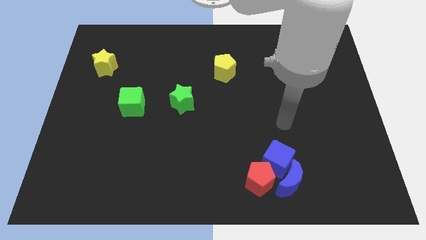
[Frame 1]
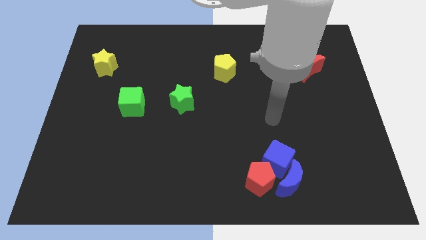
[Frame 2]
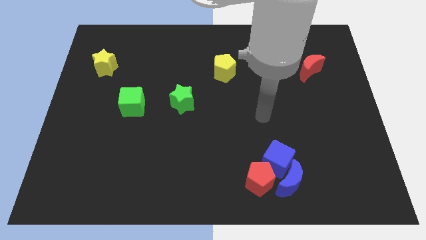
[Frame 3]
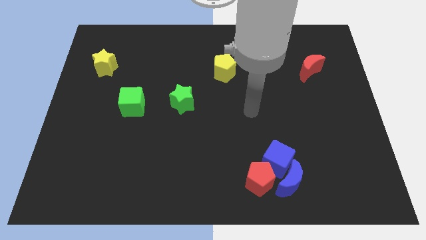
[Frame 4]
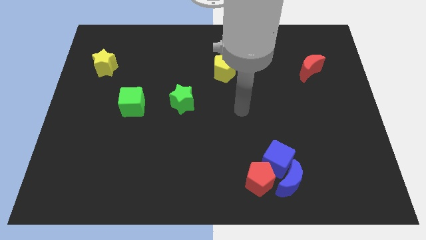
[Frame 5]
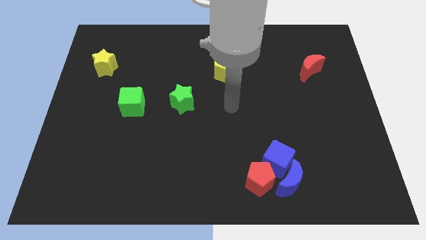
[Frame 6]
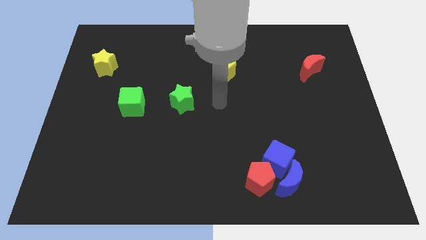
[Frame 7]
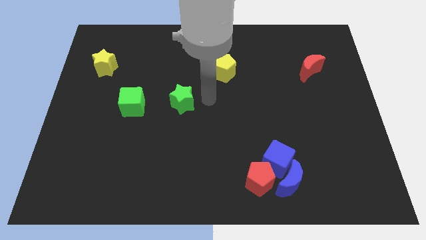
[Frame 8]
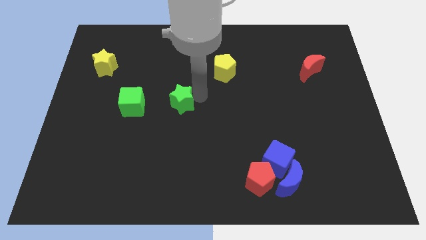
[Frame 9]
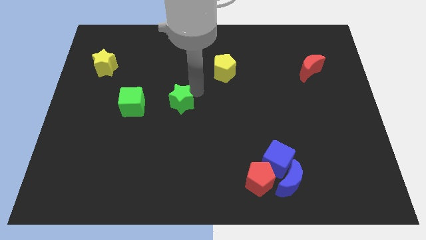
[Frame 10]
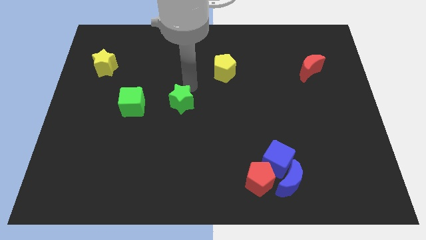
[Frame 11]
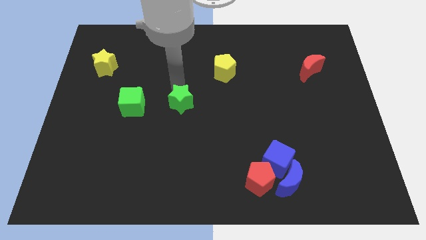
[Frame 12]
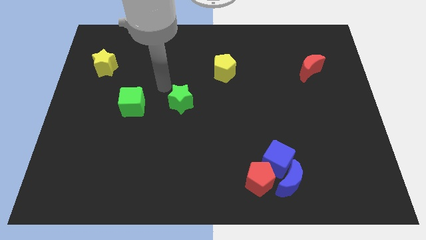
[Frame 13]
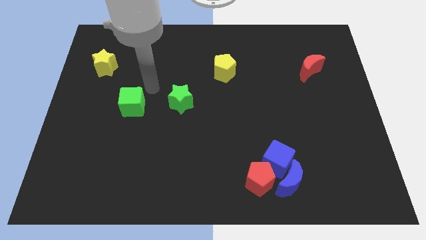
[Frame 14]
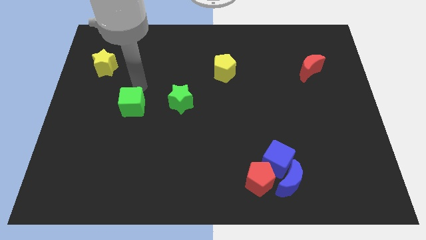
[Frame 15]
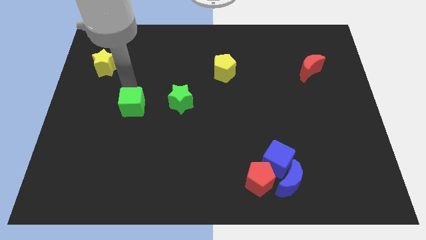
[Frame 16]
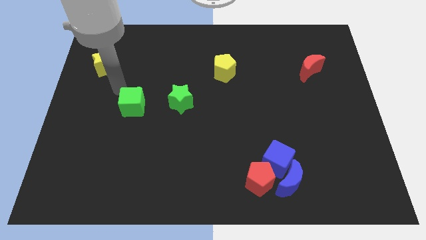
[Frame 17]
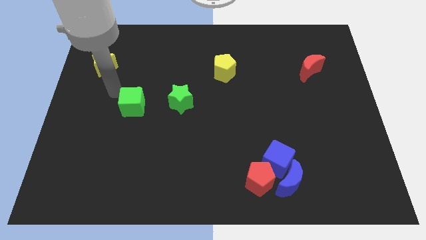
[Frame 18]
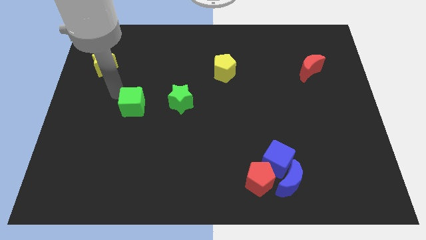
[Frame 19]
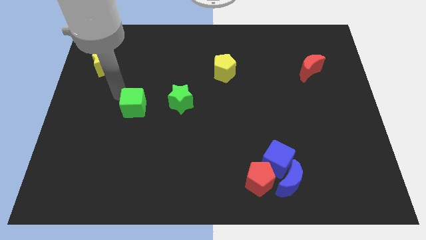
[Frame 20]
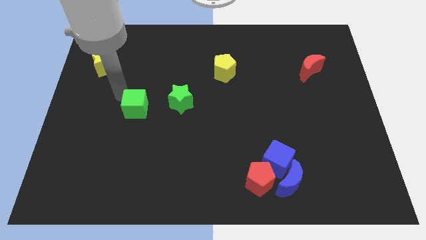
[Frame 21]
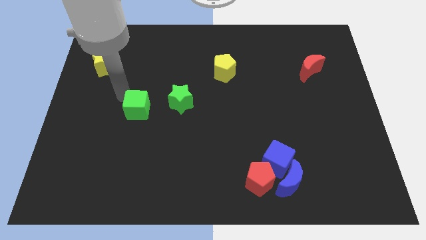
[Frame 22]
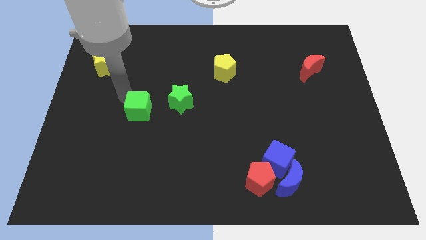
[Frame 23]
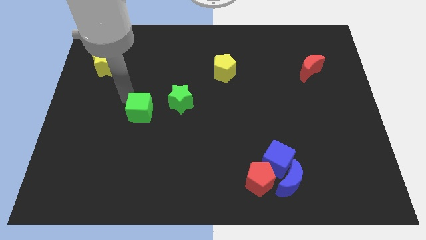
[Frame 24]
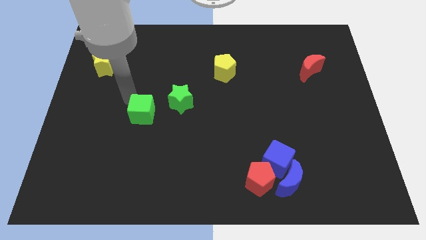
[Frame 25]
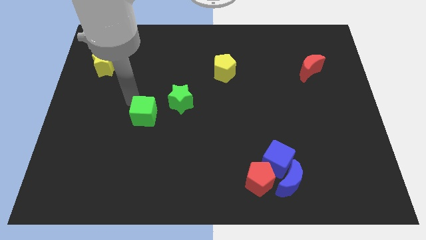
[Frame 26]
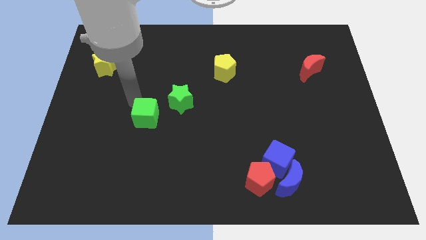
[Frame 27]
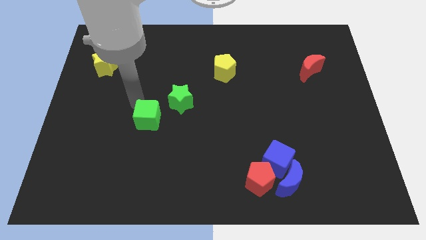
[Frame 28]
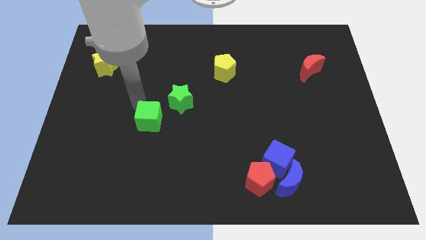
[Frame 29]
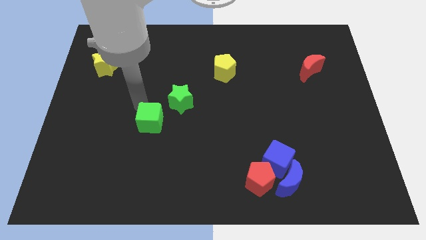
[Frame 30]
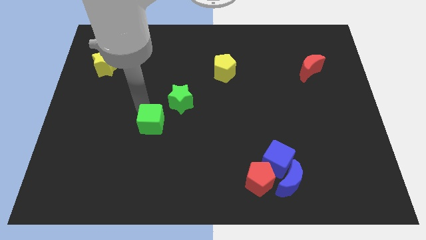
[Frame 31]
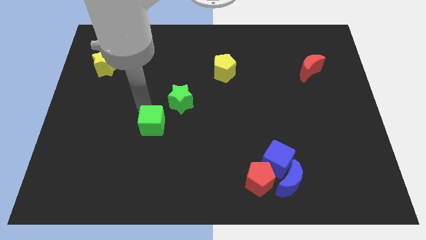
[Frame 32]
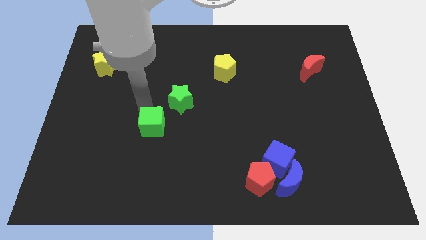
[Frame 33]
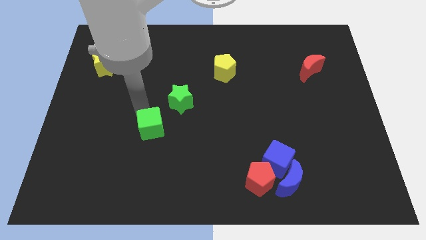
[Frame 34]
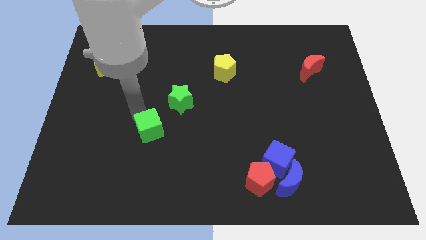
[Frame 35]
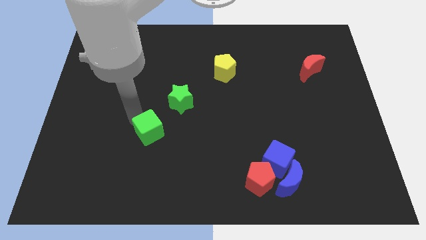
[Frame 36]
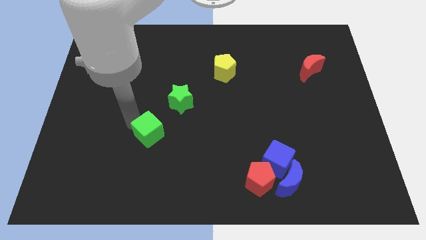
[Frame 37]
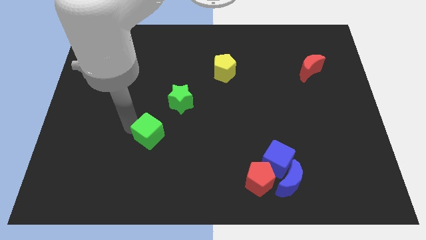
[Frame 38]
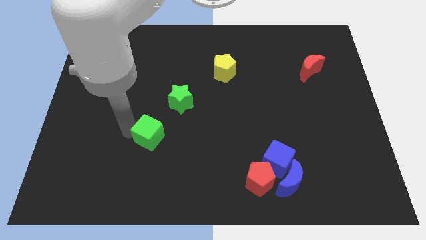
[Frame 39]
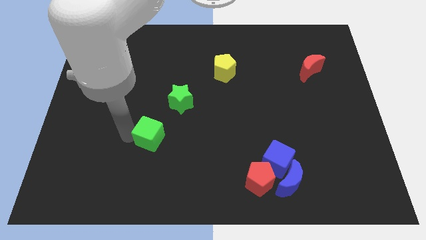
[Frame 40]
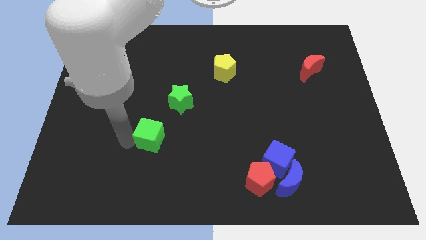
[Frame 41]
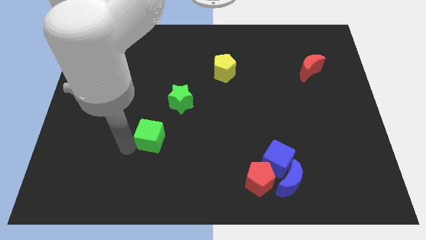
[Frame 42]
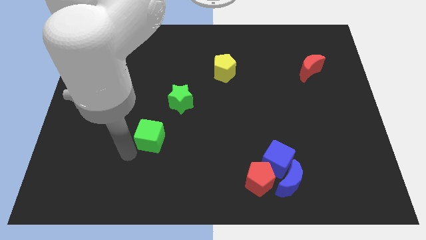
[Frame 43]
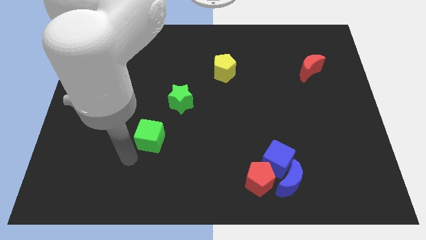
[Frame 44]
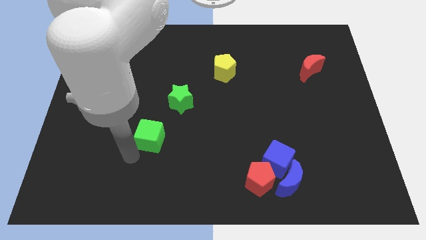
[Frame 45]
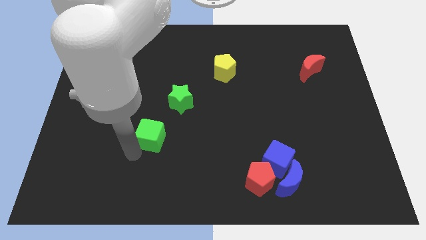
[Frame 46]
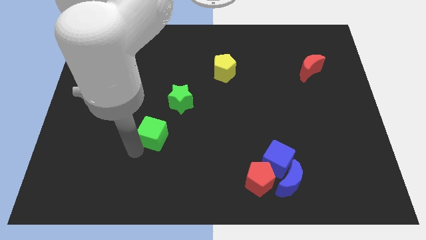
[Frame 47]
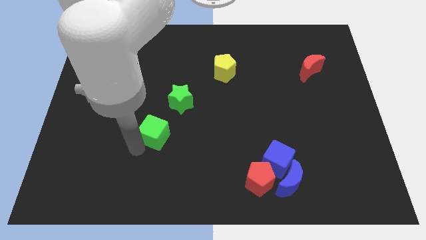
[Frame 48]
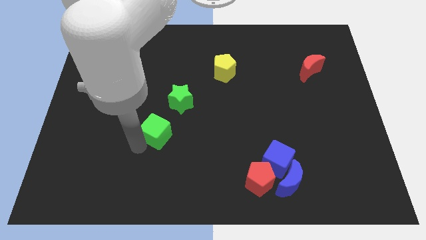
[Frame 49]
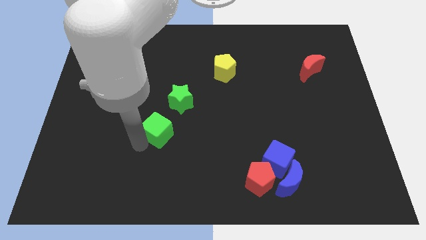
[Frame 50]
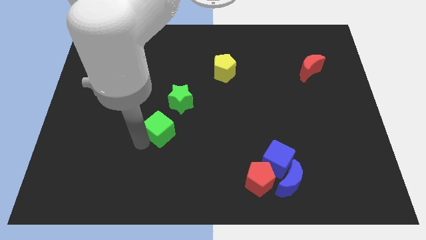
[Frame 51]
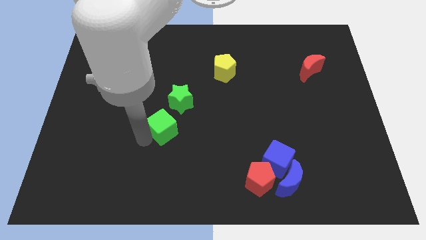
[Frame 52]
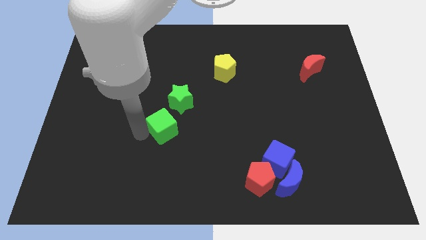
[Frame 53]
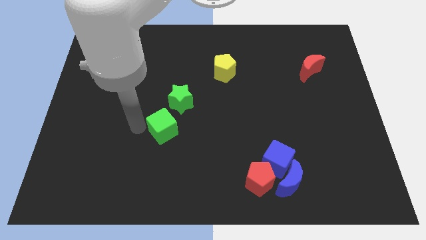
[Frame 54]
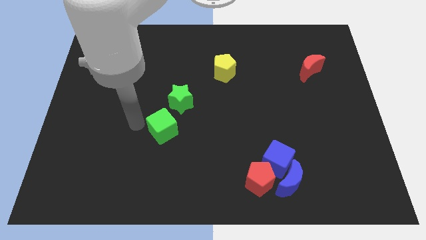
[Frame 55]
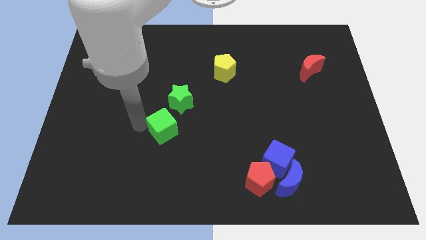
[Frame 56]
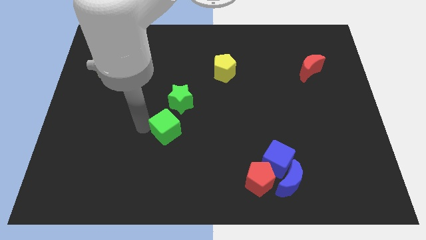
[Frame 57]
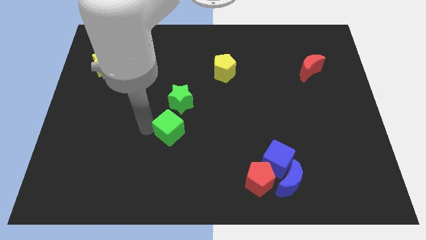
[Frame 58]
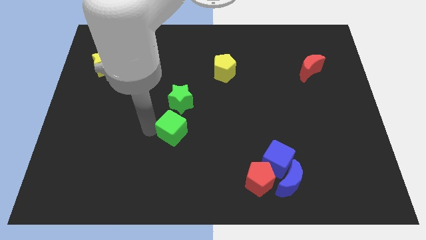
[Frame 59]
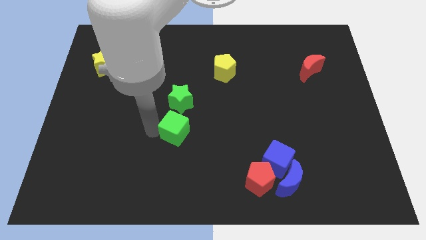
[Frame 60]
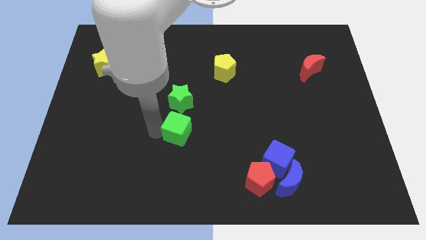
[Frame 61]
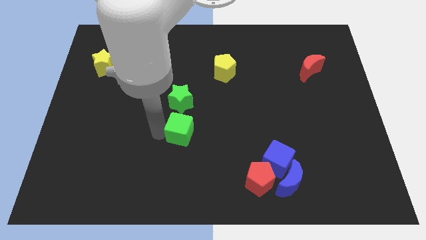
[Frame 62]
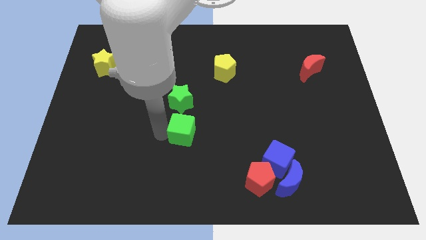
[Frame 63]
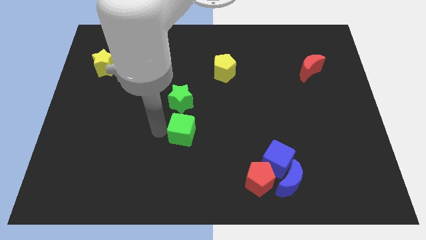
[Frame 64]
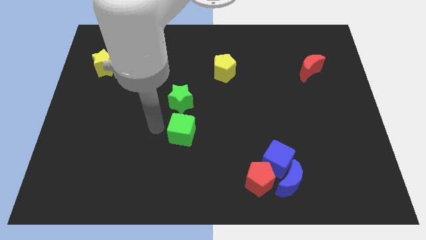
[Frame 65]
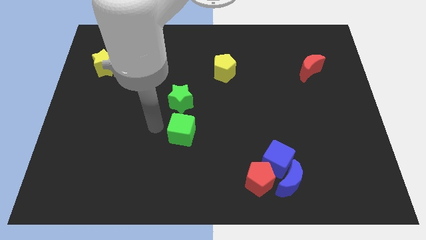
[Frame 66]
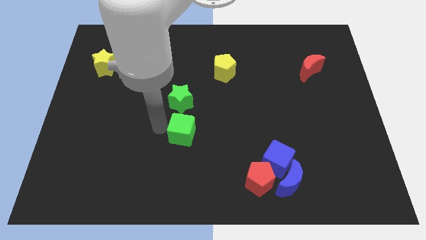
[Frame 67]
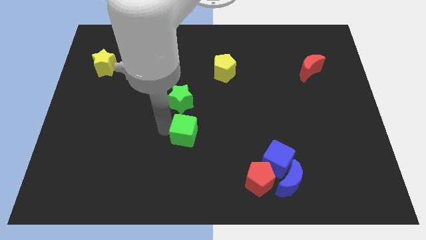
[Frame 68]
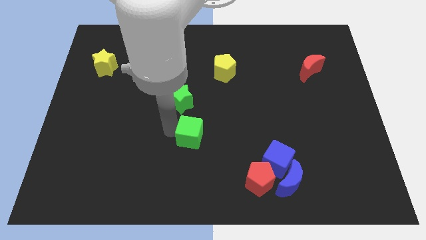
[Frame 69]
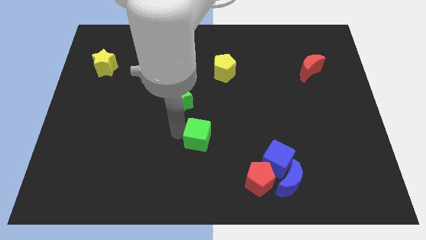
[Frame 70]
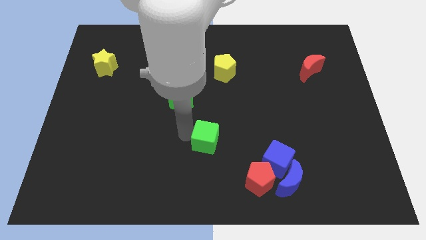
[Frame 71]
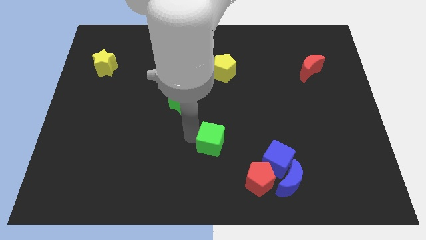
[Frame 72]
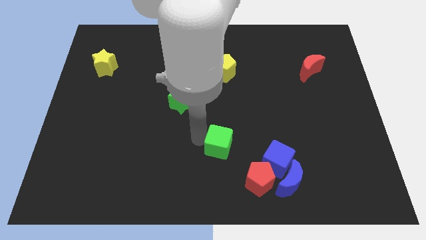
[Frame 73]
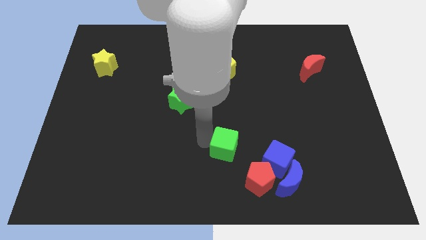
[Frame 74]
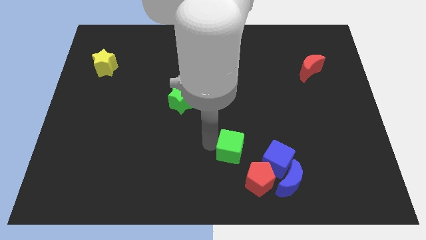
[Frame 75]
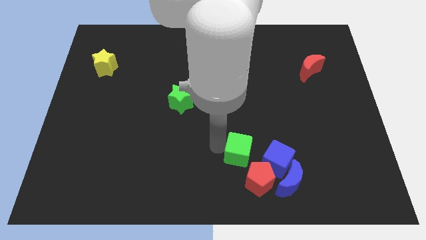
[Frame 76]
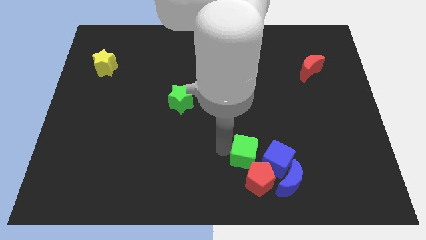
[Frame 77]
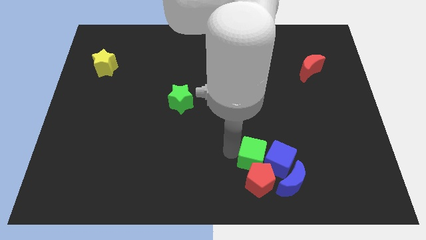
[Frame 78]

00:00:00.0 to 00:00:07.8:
put the green cube to the blue cube
